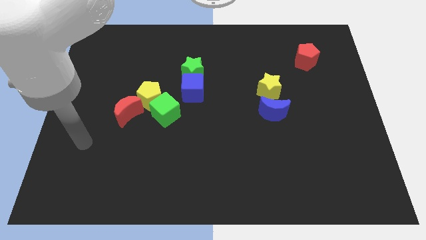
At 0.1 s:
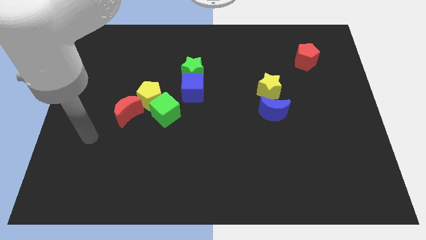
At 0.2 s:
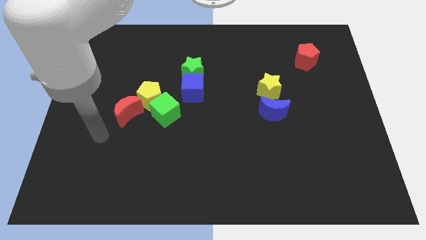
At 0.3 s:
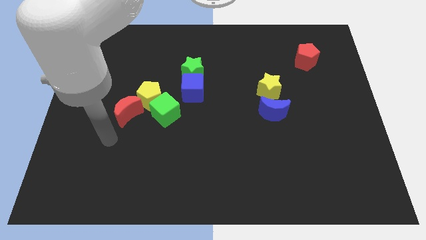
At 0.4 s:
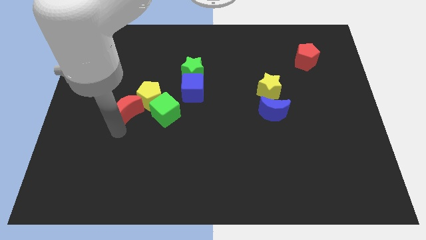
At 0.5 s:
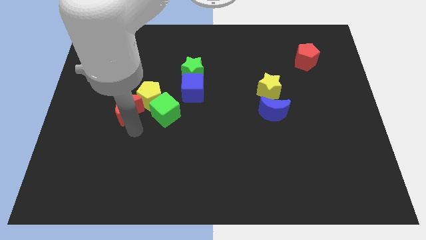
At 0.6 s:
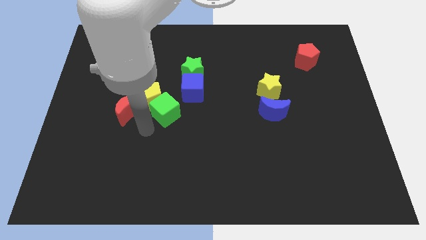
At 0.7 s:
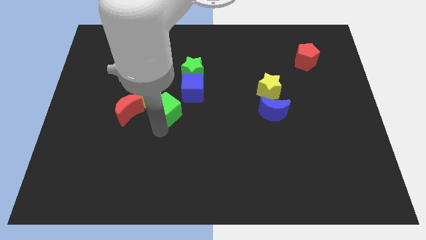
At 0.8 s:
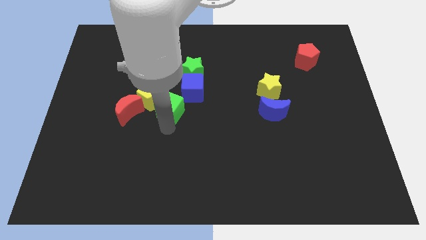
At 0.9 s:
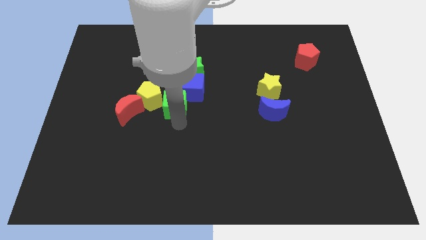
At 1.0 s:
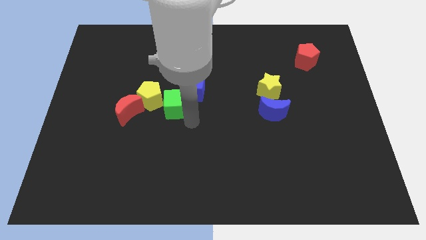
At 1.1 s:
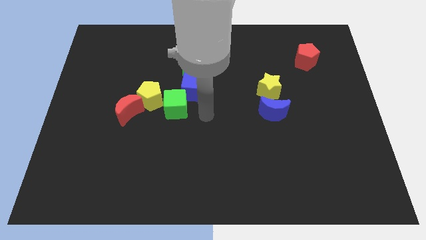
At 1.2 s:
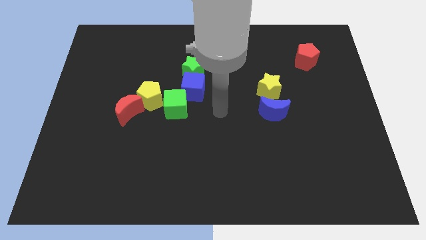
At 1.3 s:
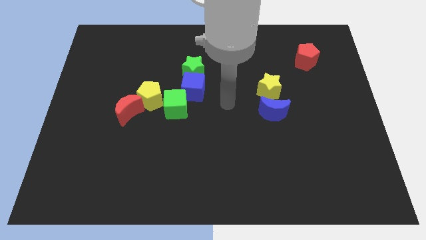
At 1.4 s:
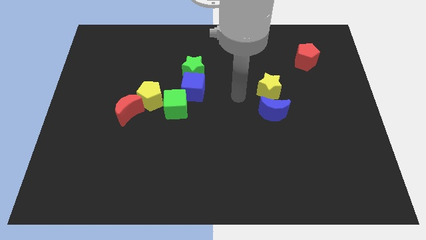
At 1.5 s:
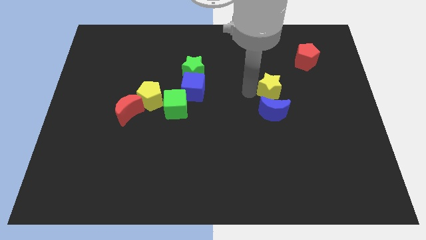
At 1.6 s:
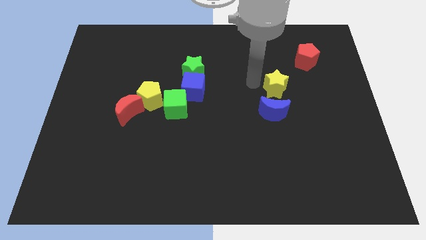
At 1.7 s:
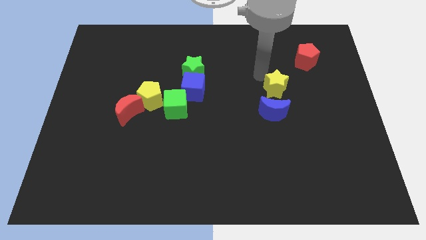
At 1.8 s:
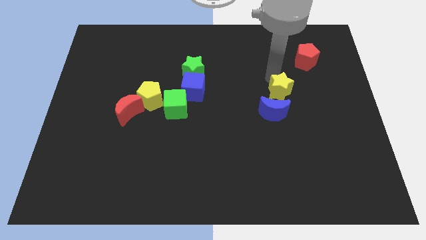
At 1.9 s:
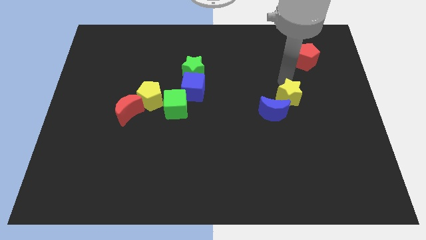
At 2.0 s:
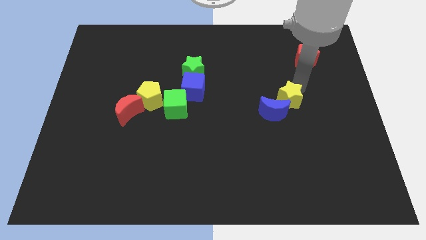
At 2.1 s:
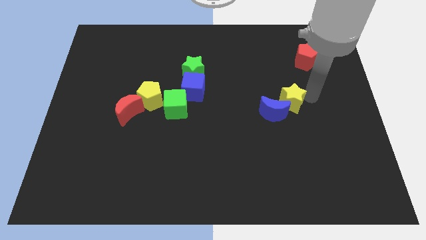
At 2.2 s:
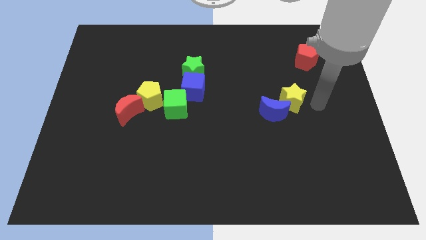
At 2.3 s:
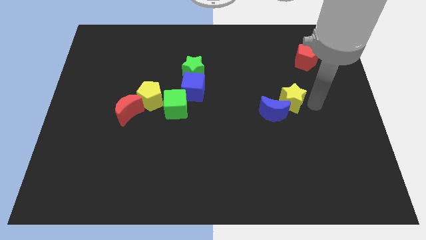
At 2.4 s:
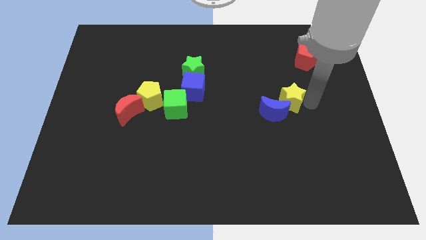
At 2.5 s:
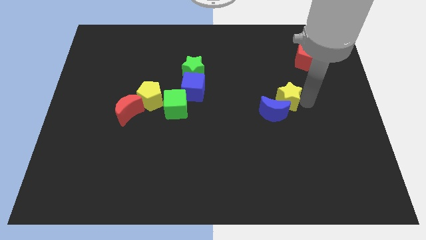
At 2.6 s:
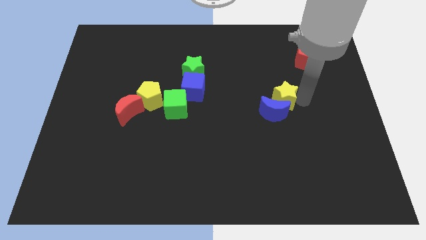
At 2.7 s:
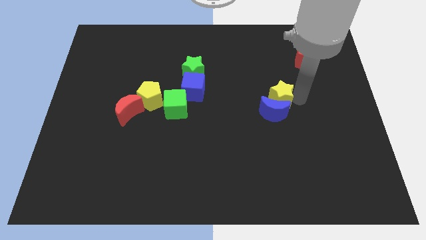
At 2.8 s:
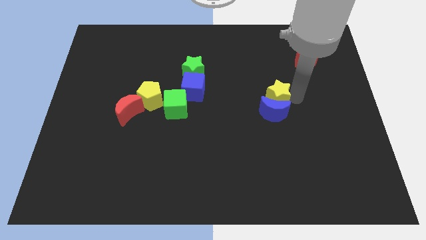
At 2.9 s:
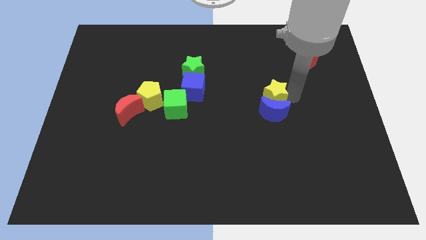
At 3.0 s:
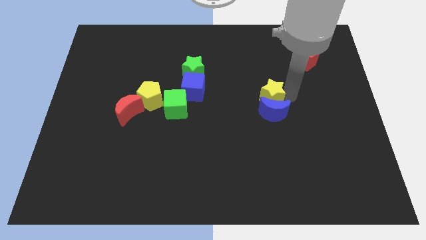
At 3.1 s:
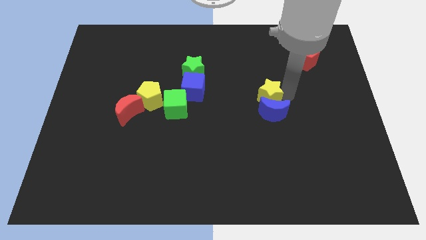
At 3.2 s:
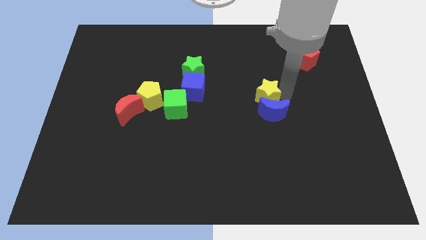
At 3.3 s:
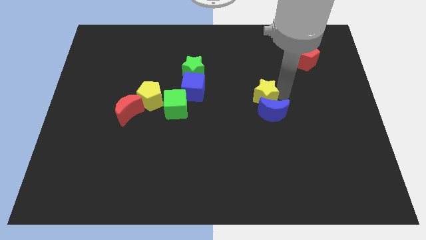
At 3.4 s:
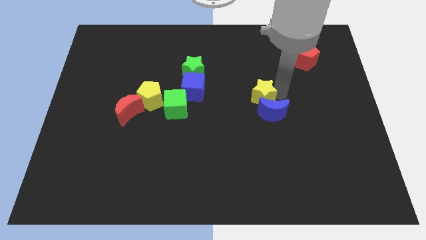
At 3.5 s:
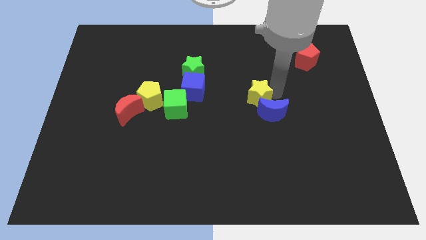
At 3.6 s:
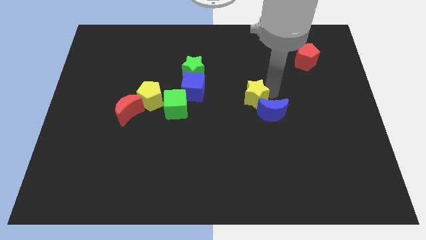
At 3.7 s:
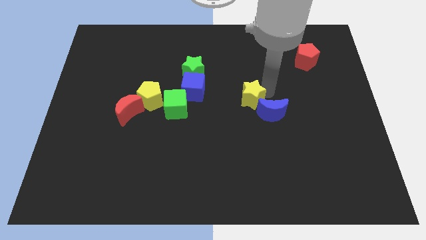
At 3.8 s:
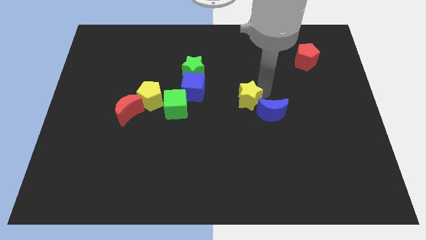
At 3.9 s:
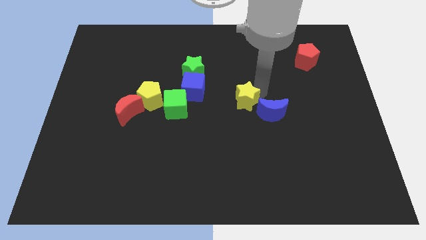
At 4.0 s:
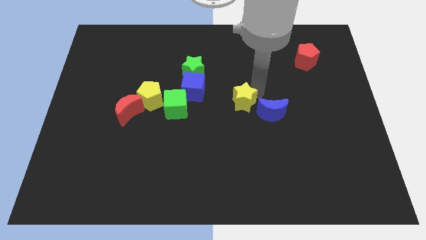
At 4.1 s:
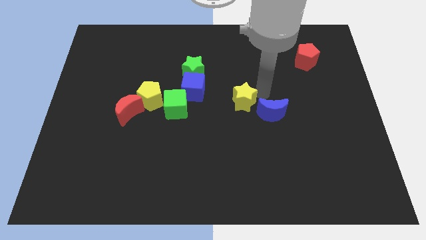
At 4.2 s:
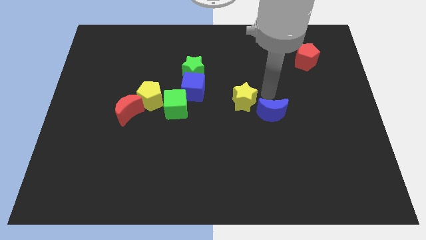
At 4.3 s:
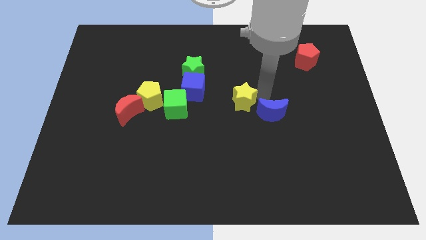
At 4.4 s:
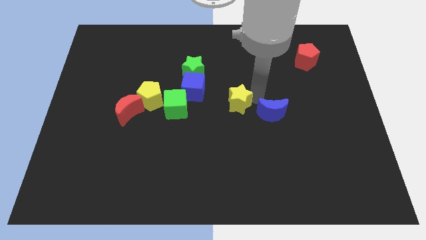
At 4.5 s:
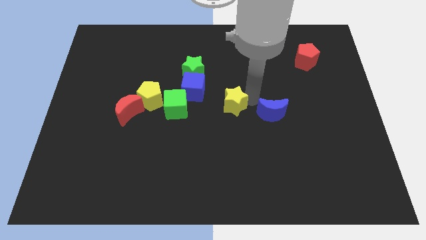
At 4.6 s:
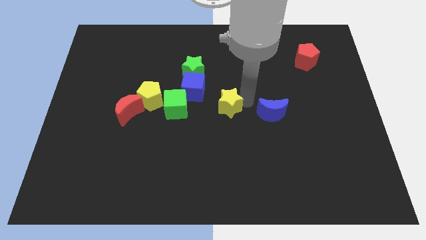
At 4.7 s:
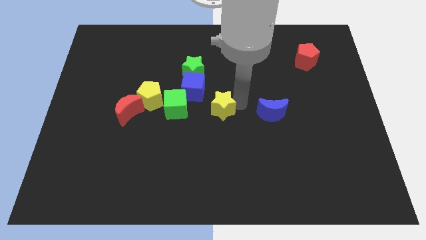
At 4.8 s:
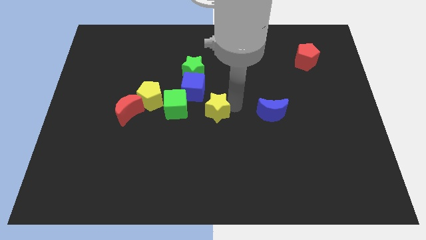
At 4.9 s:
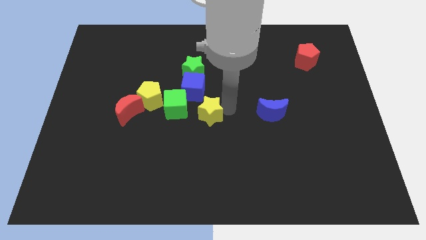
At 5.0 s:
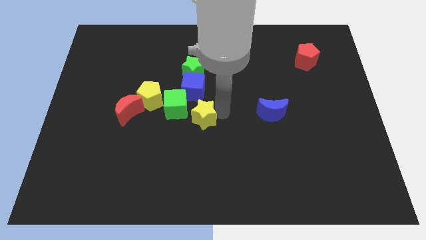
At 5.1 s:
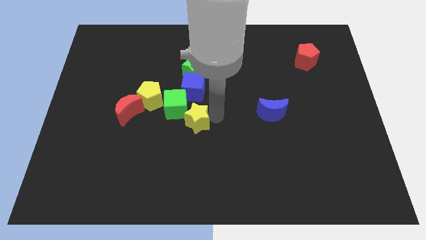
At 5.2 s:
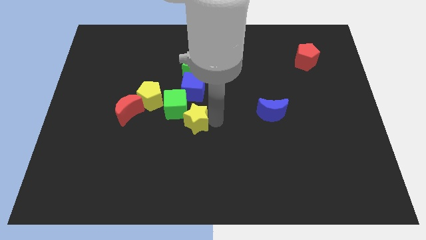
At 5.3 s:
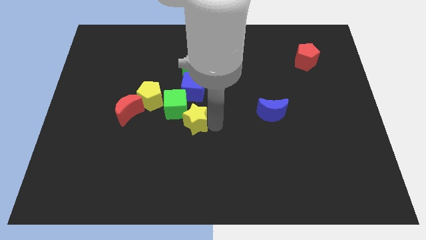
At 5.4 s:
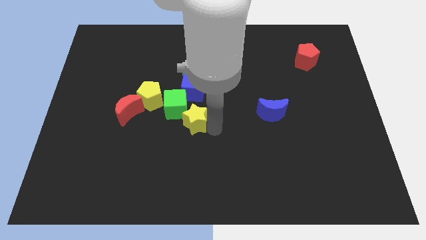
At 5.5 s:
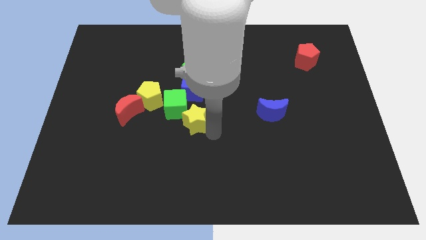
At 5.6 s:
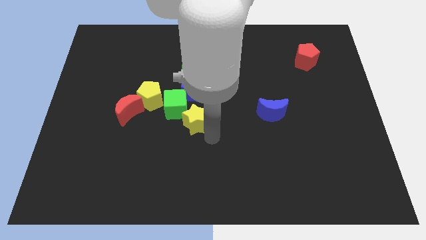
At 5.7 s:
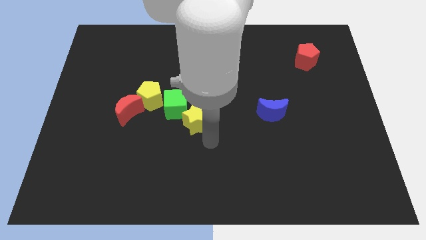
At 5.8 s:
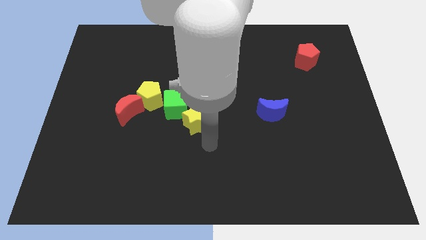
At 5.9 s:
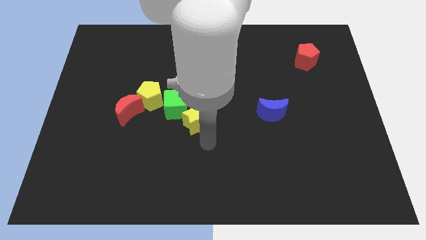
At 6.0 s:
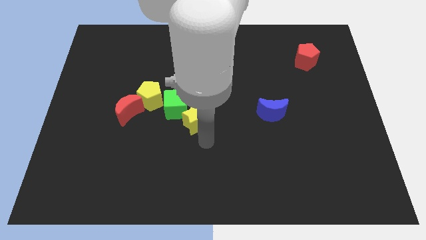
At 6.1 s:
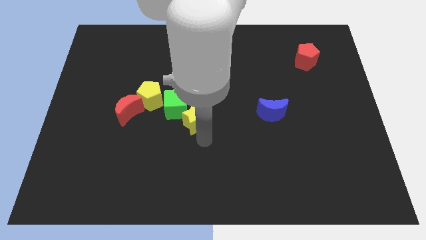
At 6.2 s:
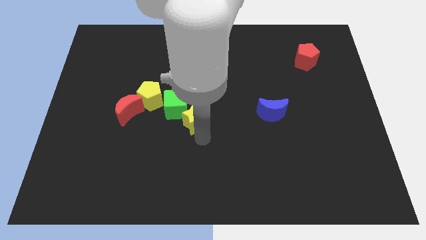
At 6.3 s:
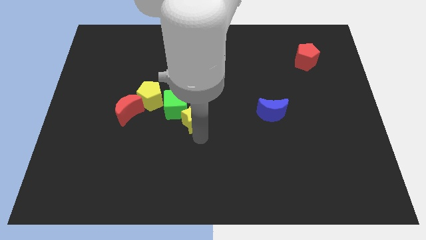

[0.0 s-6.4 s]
push the yellow star to the green cube

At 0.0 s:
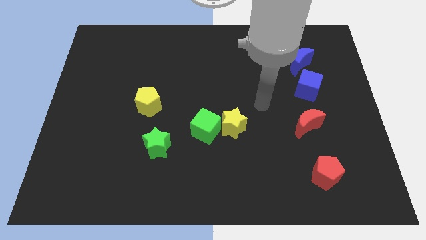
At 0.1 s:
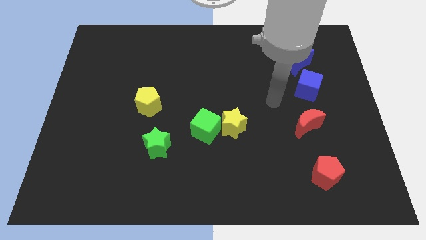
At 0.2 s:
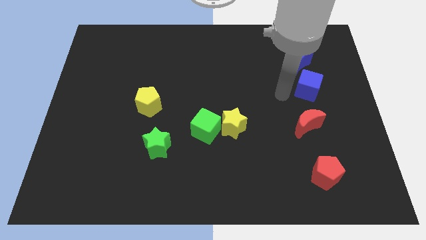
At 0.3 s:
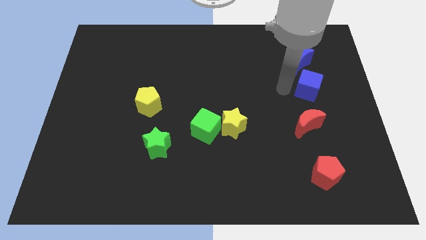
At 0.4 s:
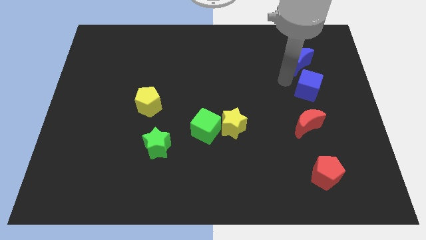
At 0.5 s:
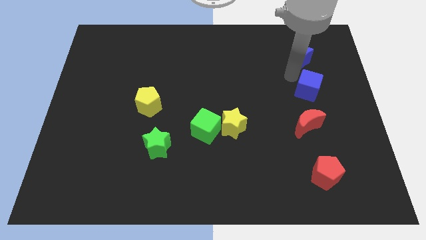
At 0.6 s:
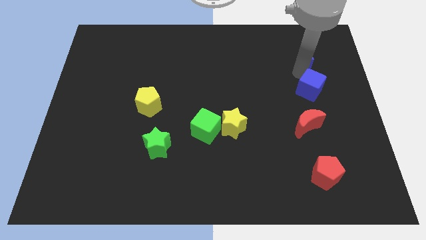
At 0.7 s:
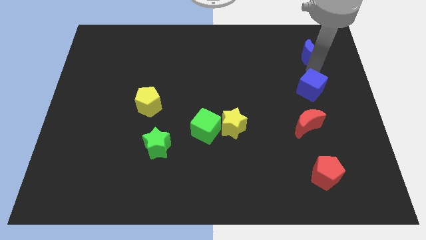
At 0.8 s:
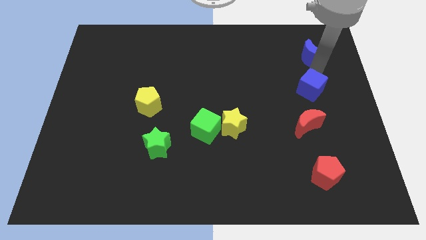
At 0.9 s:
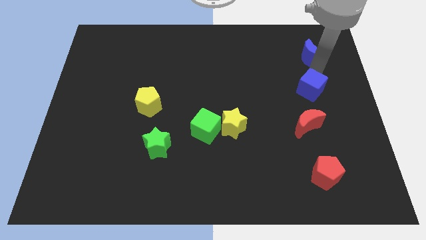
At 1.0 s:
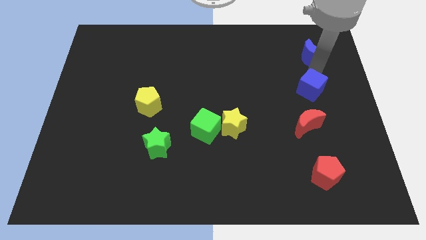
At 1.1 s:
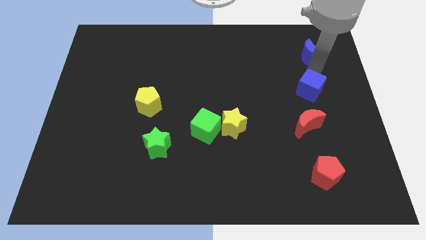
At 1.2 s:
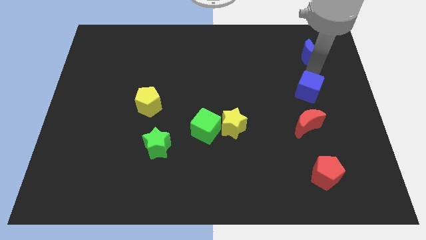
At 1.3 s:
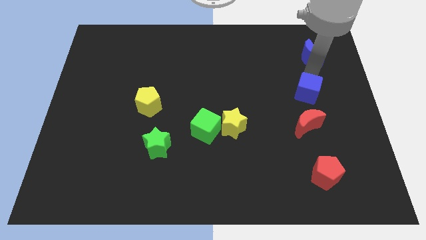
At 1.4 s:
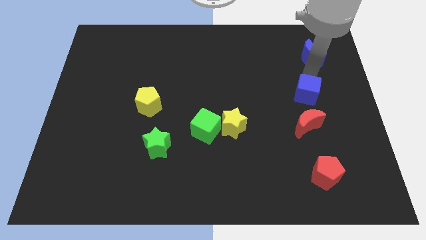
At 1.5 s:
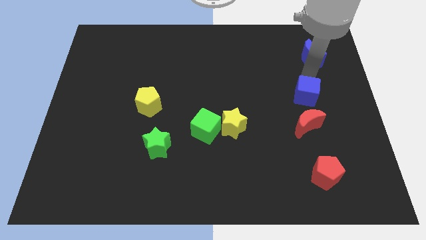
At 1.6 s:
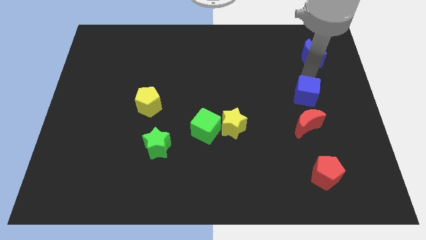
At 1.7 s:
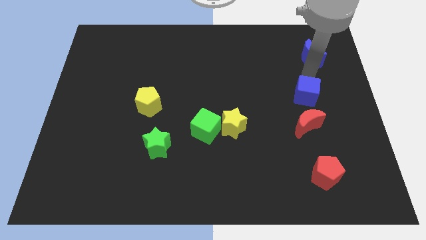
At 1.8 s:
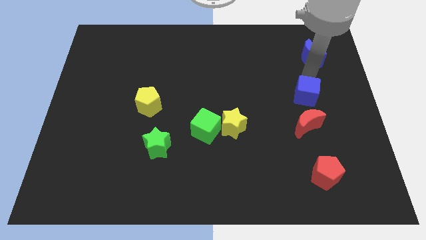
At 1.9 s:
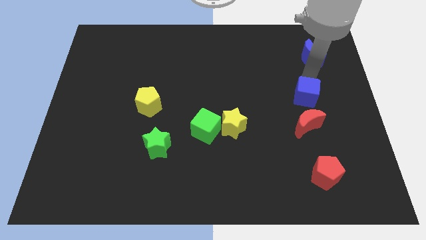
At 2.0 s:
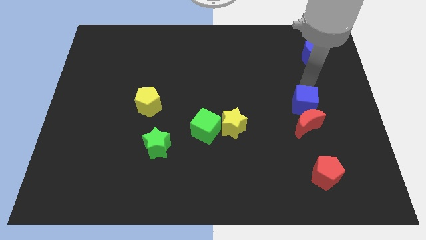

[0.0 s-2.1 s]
slide the blue cube next to the red moon
